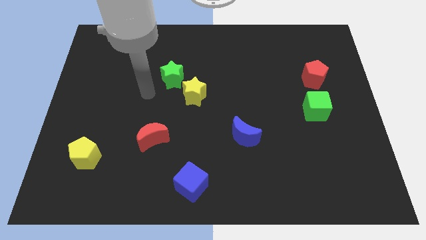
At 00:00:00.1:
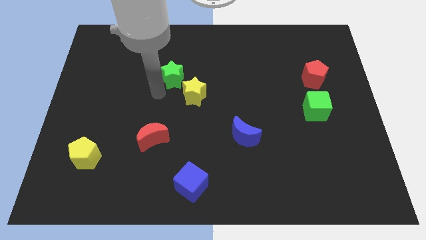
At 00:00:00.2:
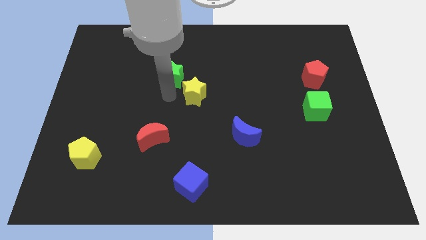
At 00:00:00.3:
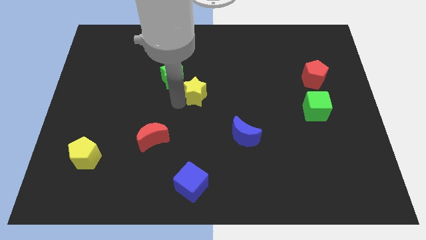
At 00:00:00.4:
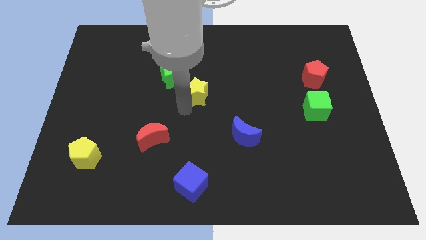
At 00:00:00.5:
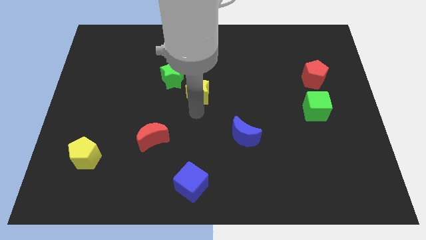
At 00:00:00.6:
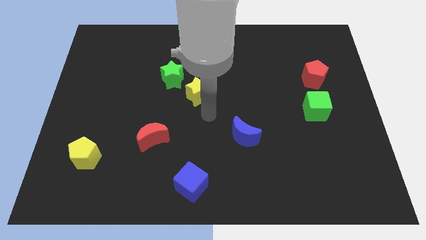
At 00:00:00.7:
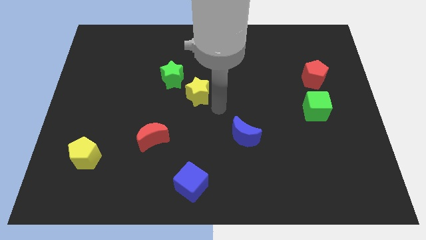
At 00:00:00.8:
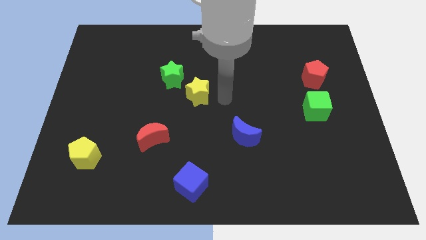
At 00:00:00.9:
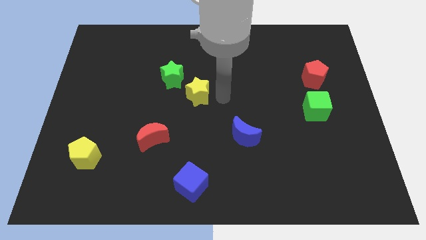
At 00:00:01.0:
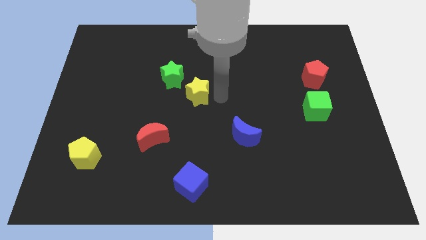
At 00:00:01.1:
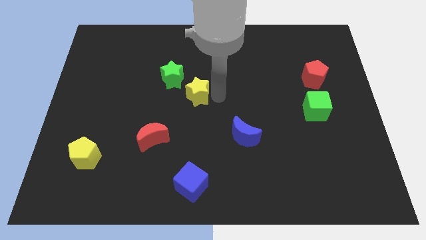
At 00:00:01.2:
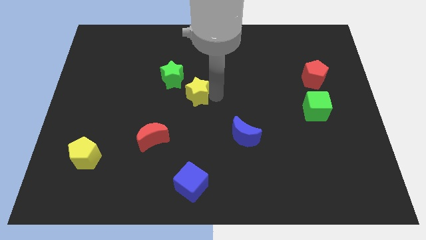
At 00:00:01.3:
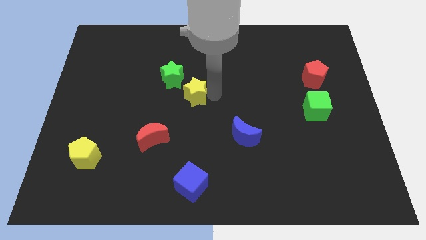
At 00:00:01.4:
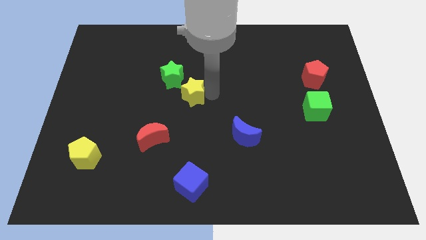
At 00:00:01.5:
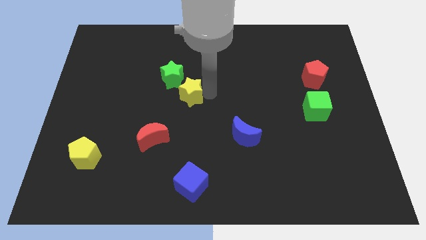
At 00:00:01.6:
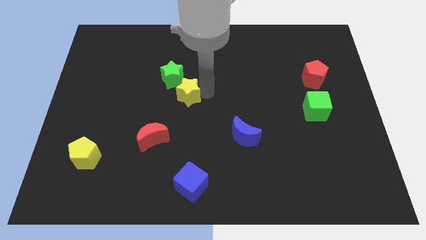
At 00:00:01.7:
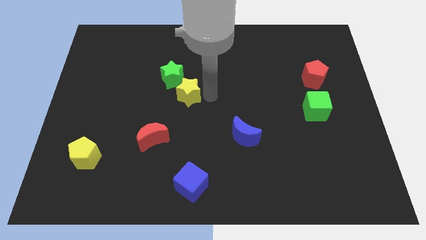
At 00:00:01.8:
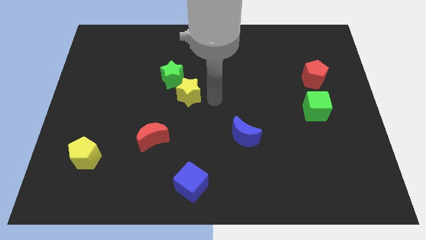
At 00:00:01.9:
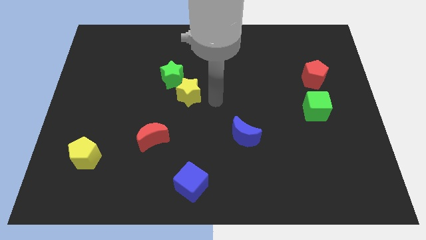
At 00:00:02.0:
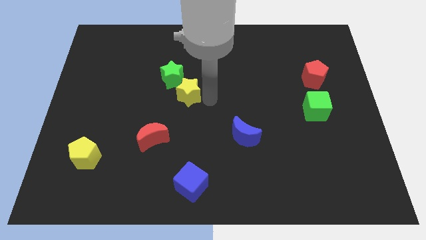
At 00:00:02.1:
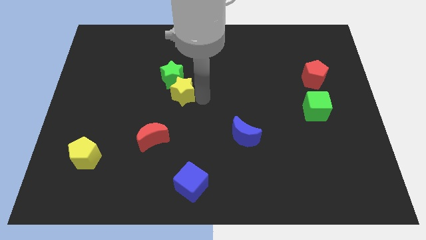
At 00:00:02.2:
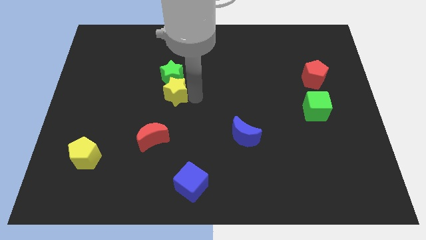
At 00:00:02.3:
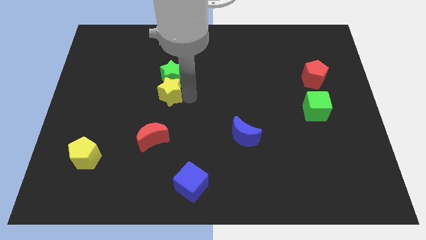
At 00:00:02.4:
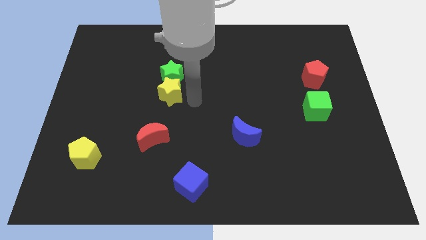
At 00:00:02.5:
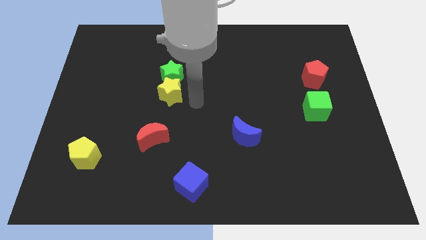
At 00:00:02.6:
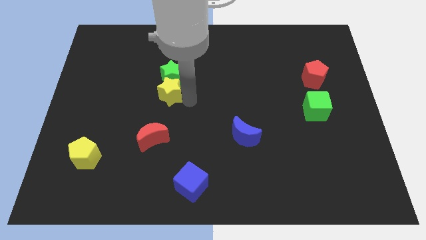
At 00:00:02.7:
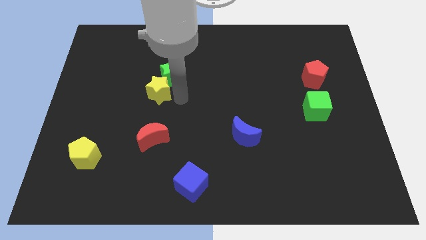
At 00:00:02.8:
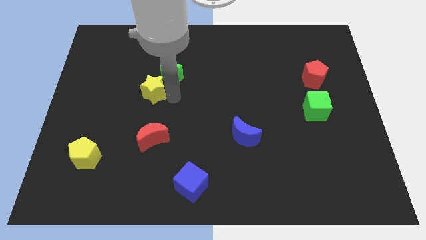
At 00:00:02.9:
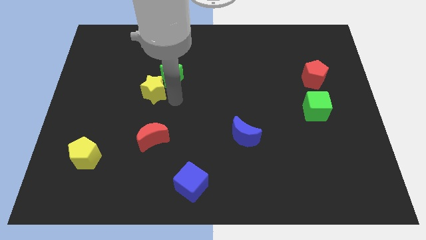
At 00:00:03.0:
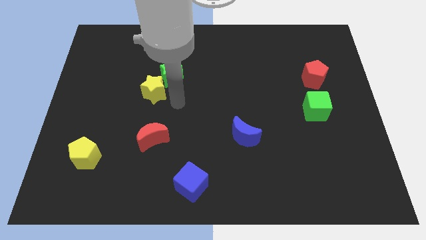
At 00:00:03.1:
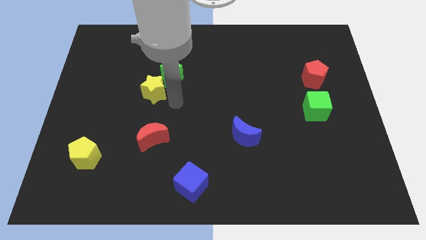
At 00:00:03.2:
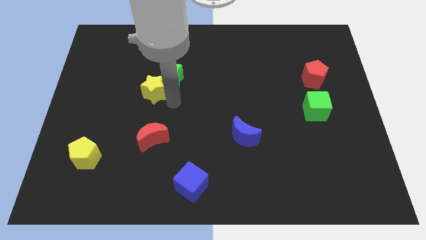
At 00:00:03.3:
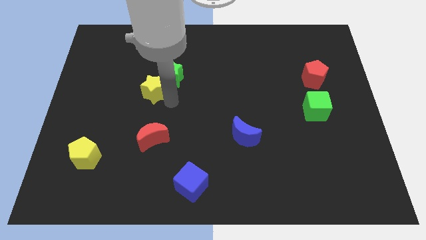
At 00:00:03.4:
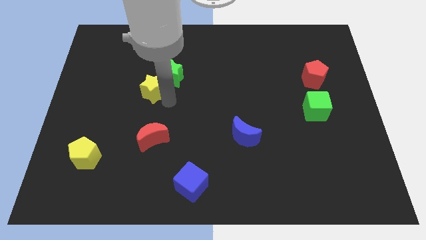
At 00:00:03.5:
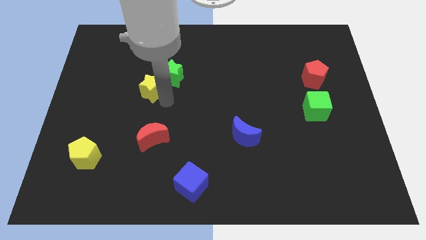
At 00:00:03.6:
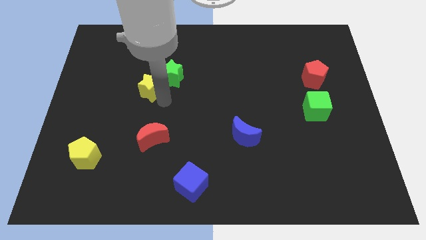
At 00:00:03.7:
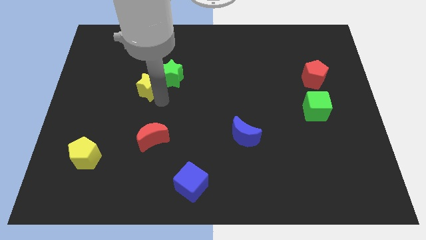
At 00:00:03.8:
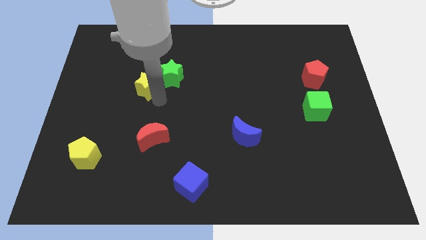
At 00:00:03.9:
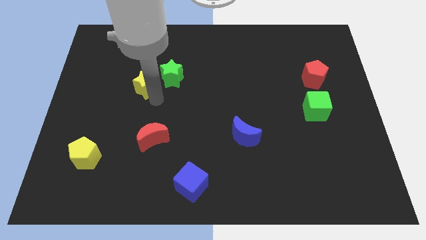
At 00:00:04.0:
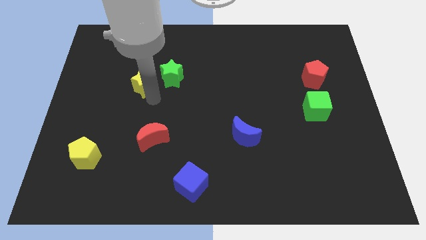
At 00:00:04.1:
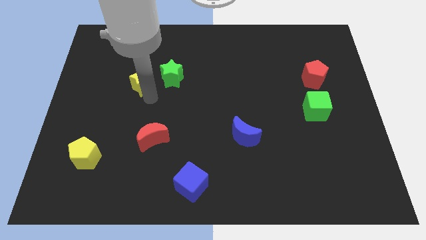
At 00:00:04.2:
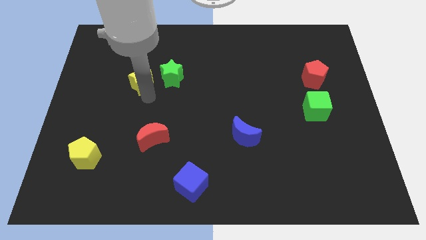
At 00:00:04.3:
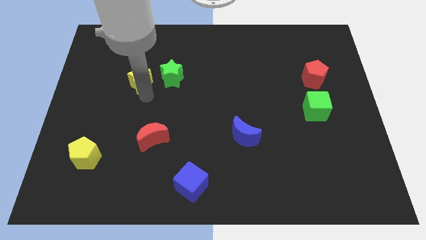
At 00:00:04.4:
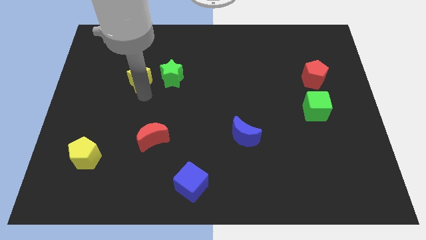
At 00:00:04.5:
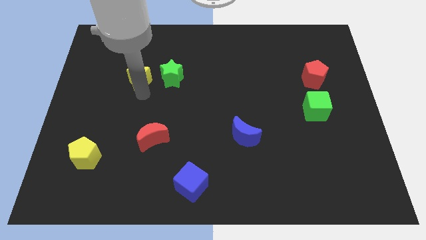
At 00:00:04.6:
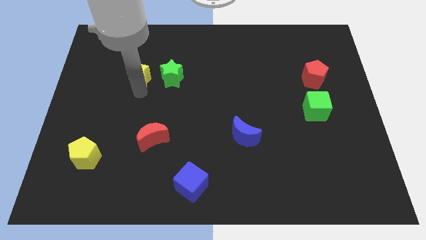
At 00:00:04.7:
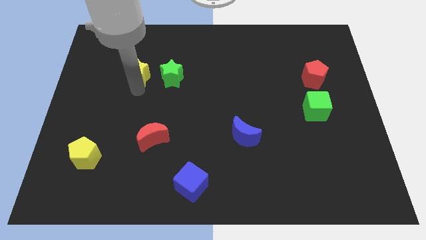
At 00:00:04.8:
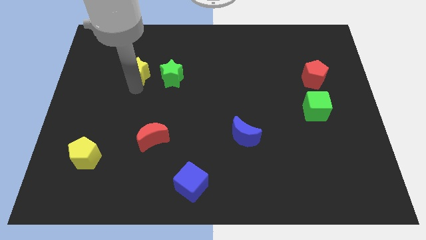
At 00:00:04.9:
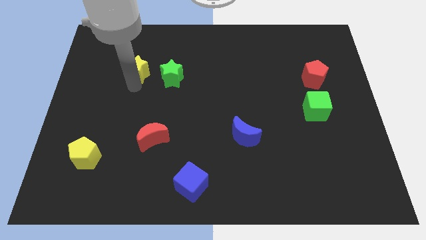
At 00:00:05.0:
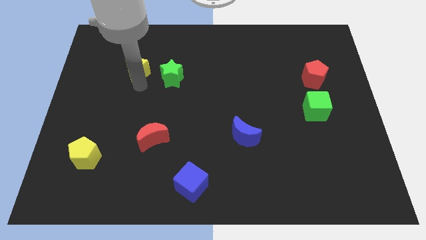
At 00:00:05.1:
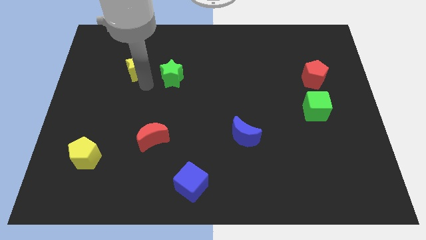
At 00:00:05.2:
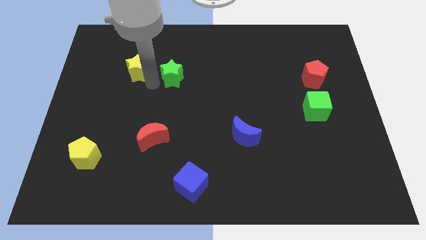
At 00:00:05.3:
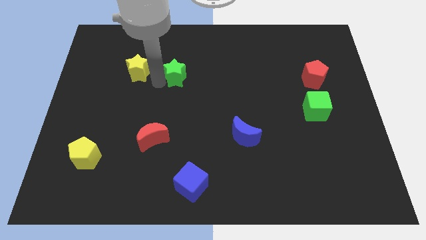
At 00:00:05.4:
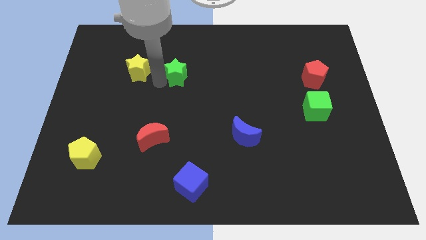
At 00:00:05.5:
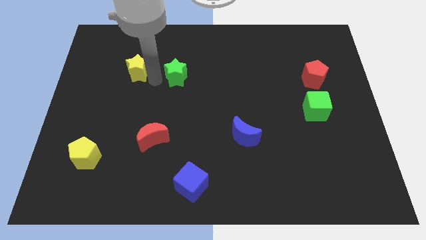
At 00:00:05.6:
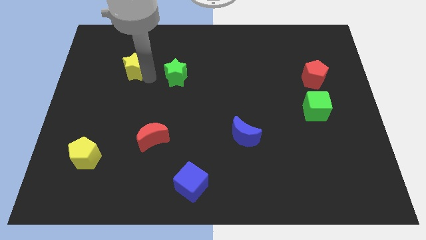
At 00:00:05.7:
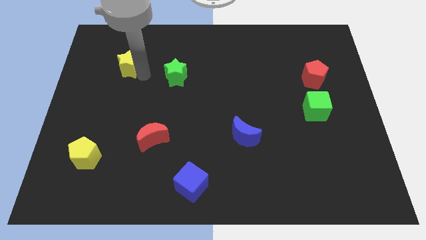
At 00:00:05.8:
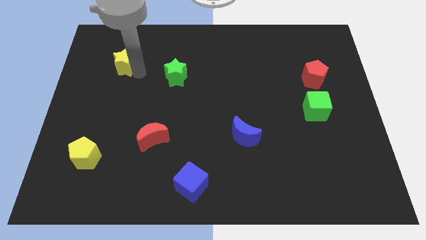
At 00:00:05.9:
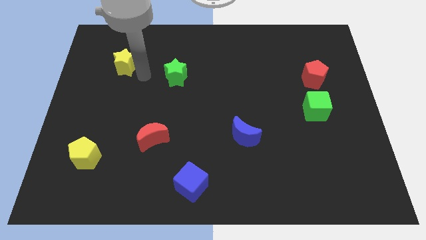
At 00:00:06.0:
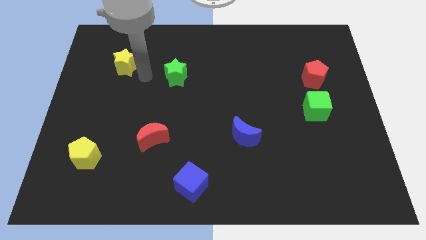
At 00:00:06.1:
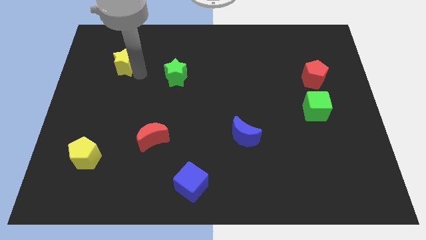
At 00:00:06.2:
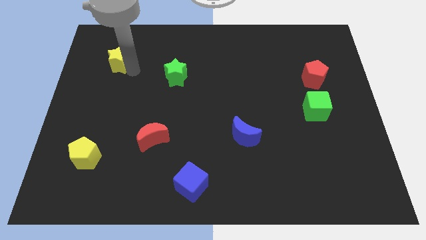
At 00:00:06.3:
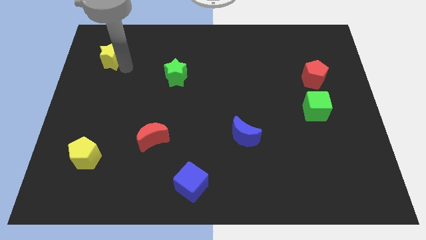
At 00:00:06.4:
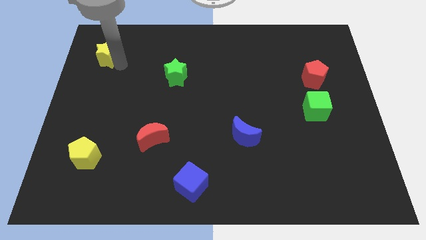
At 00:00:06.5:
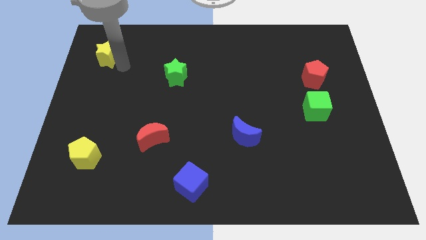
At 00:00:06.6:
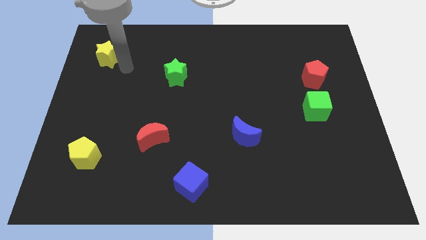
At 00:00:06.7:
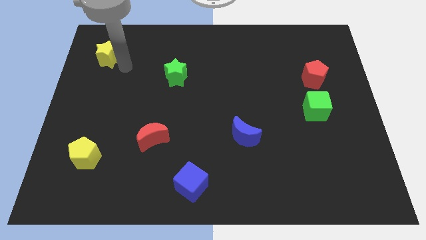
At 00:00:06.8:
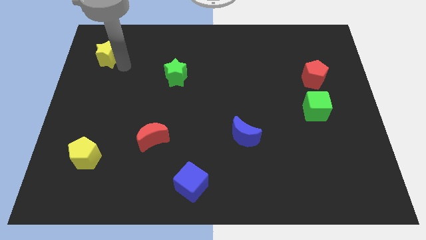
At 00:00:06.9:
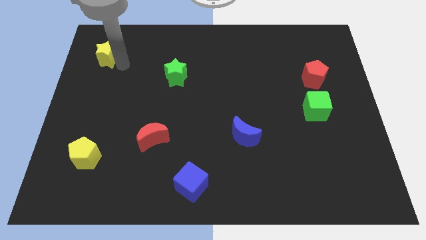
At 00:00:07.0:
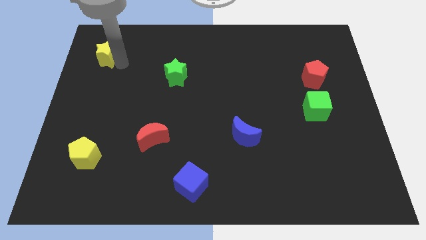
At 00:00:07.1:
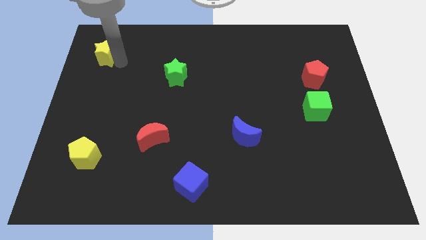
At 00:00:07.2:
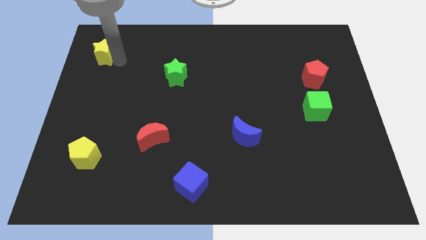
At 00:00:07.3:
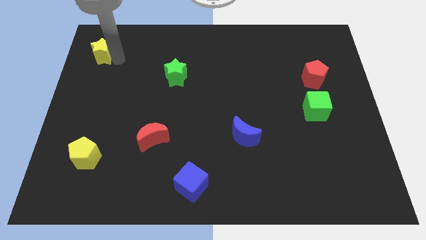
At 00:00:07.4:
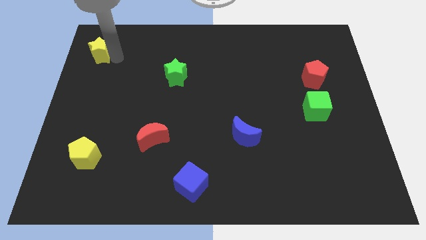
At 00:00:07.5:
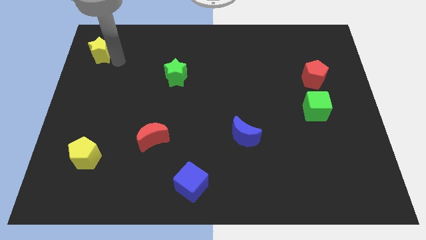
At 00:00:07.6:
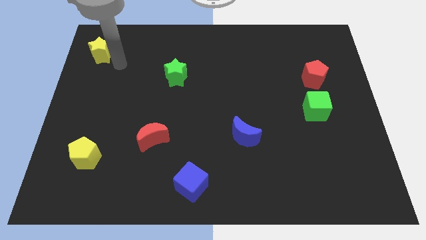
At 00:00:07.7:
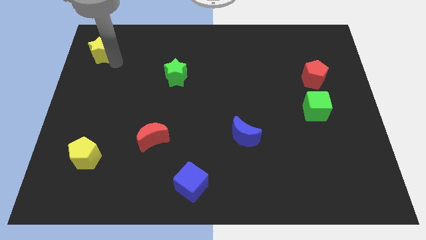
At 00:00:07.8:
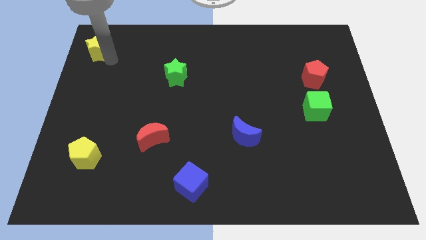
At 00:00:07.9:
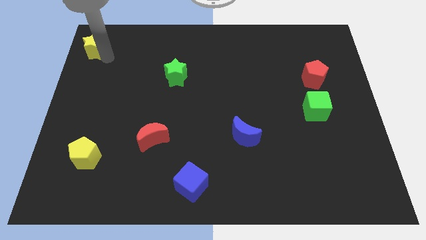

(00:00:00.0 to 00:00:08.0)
put the yellow star to the top left of the board
